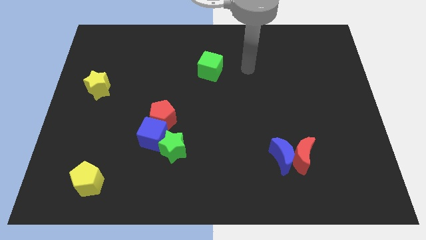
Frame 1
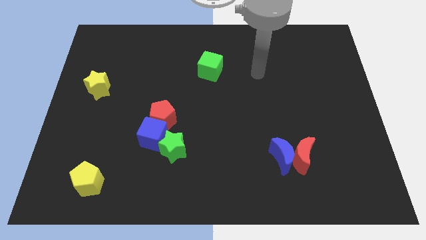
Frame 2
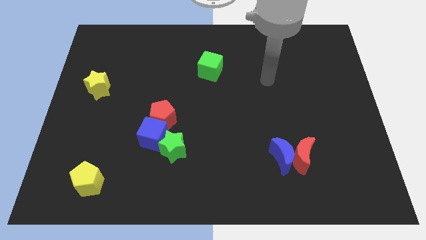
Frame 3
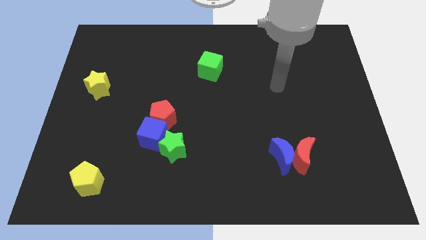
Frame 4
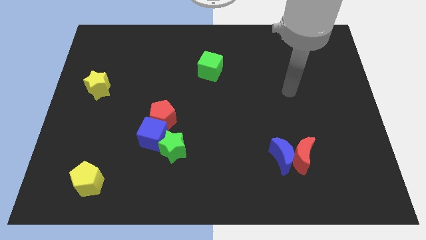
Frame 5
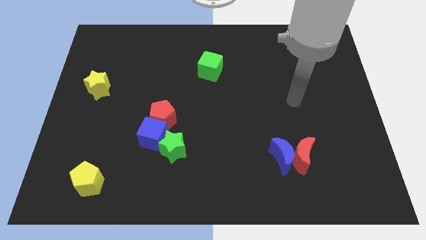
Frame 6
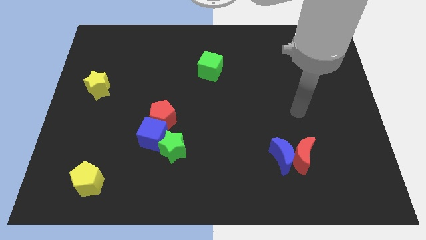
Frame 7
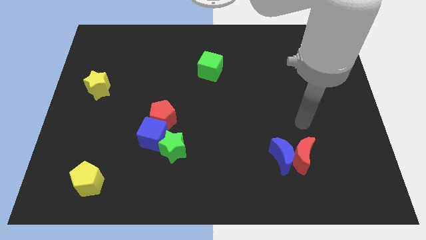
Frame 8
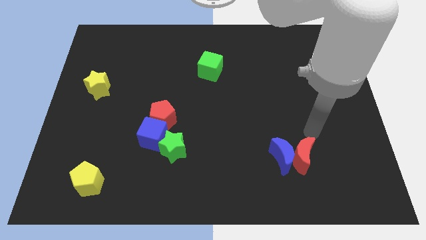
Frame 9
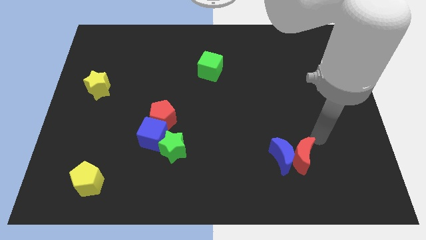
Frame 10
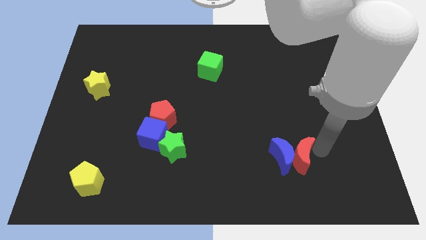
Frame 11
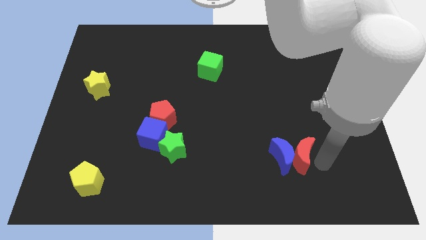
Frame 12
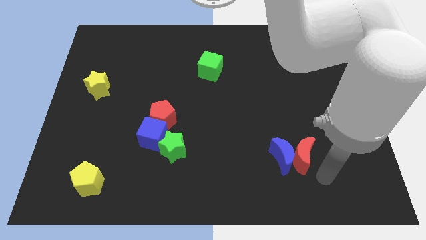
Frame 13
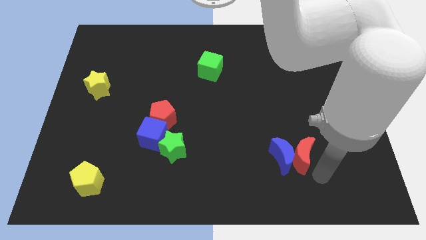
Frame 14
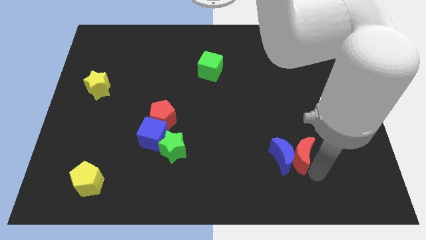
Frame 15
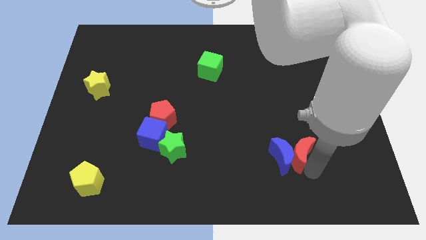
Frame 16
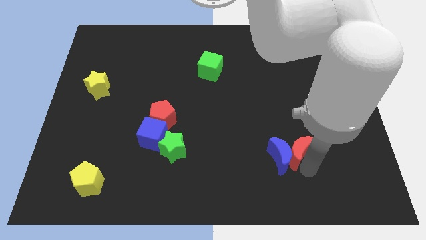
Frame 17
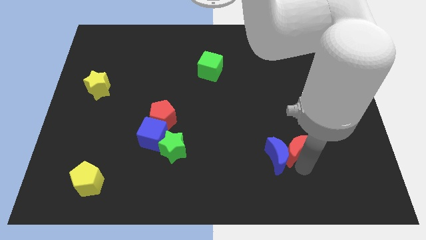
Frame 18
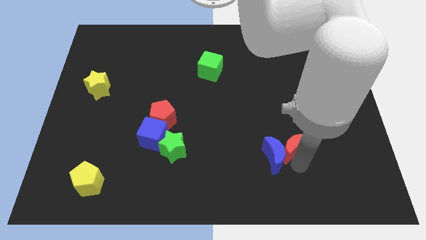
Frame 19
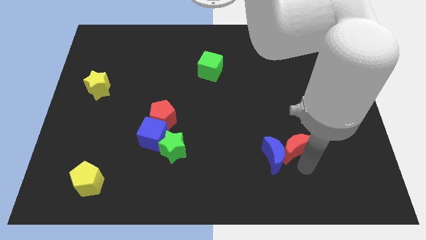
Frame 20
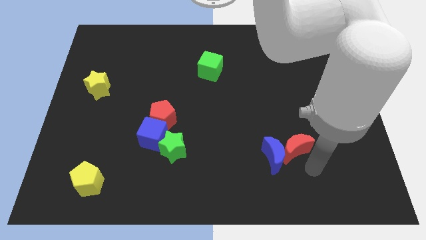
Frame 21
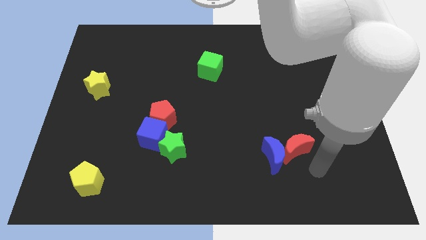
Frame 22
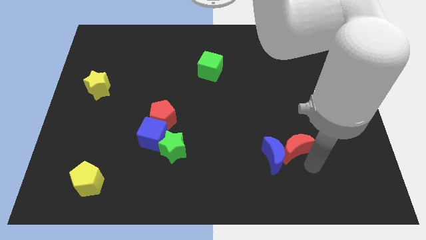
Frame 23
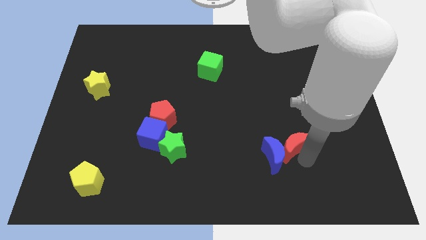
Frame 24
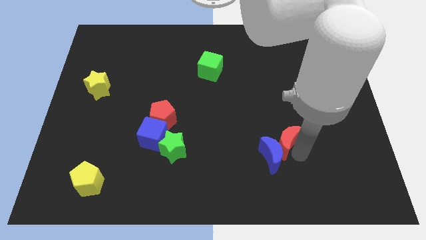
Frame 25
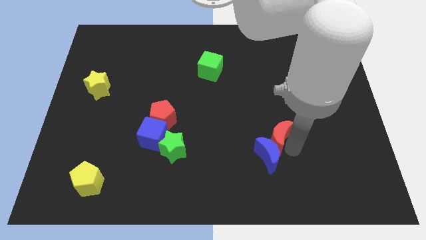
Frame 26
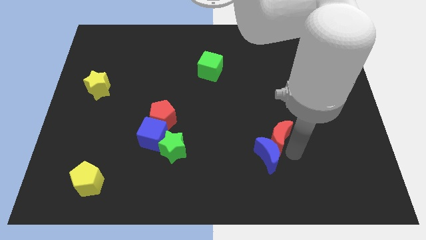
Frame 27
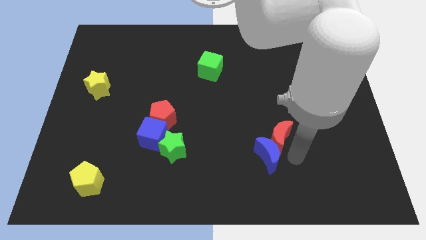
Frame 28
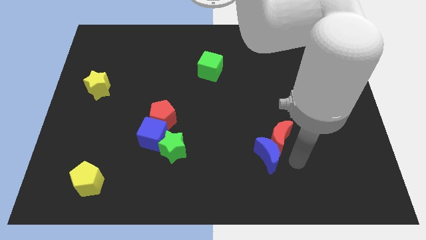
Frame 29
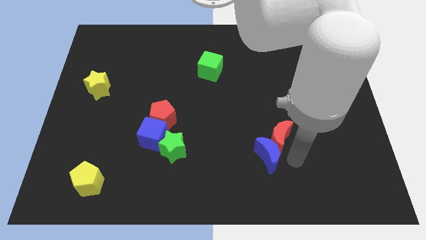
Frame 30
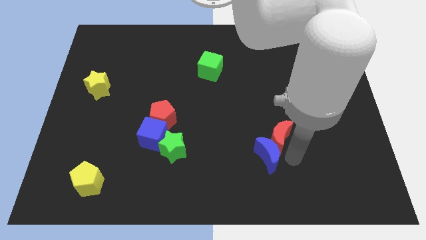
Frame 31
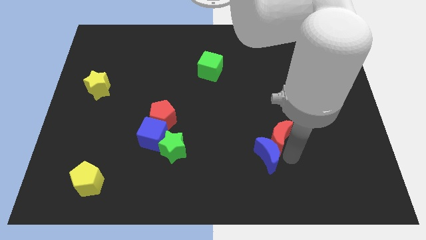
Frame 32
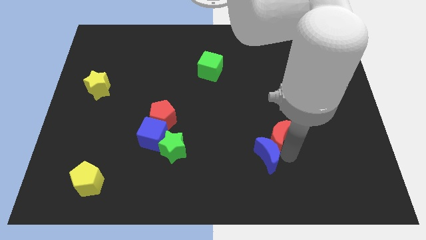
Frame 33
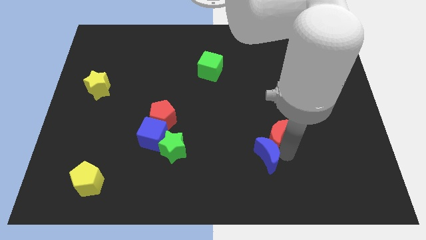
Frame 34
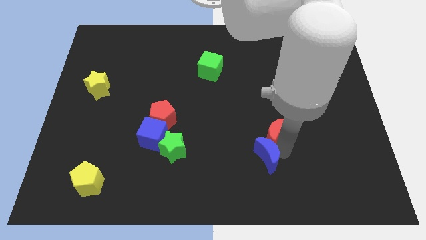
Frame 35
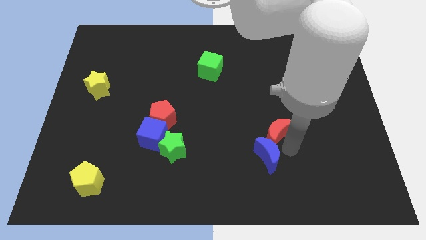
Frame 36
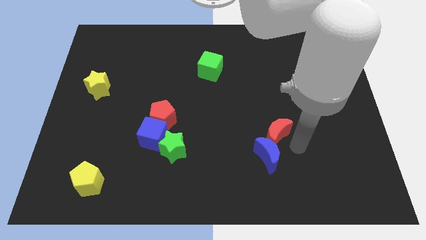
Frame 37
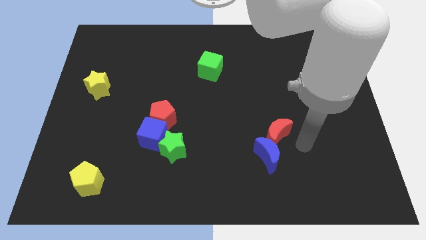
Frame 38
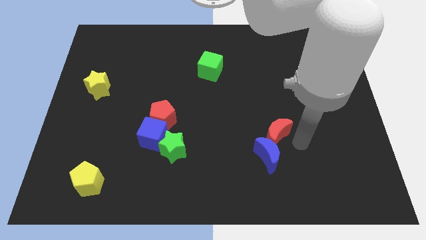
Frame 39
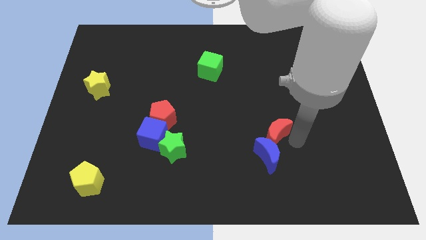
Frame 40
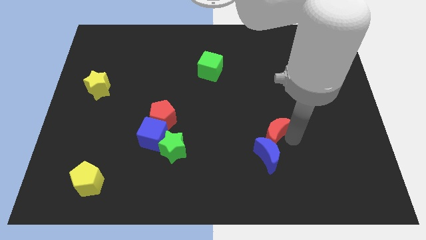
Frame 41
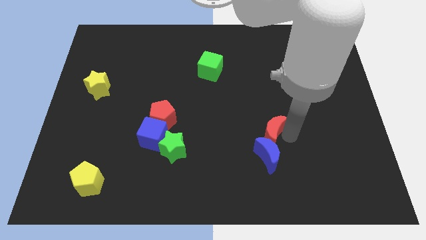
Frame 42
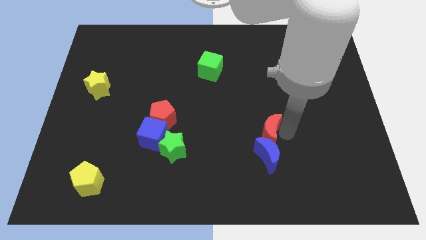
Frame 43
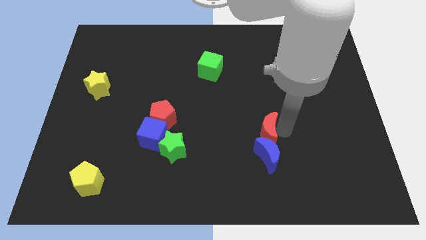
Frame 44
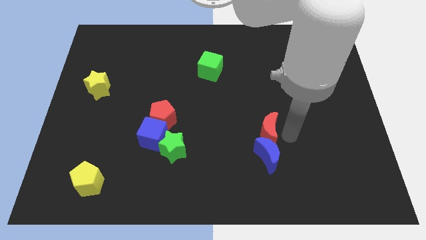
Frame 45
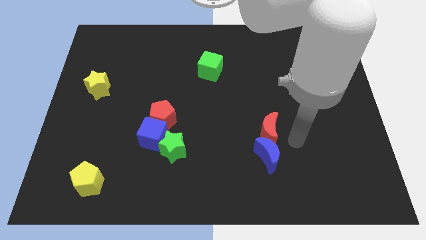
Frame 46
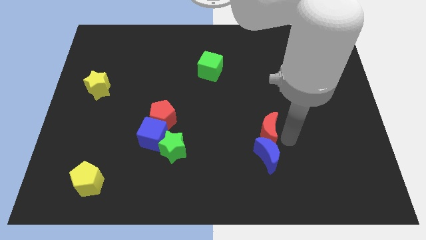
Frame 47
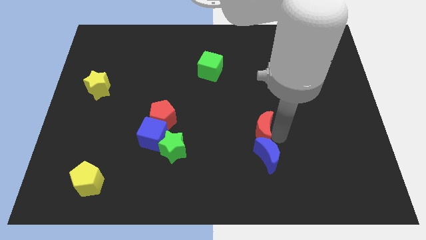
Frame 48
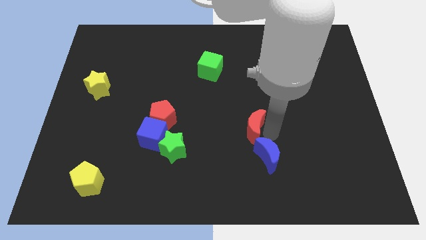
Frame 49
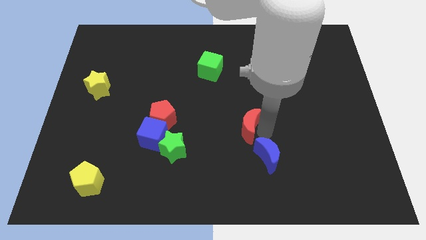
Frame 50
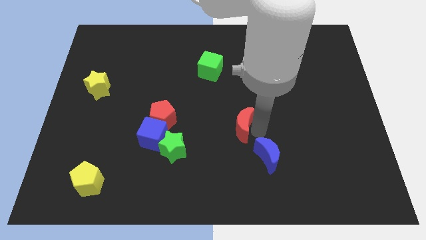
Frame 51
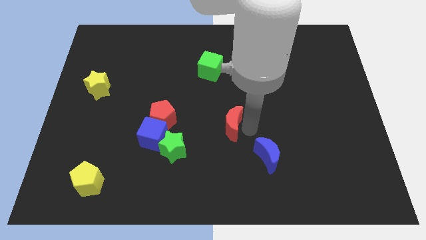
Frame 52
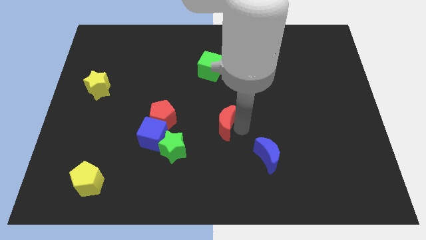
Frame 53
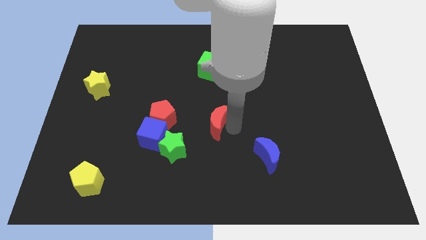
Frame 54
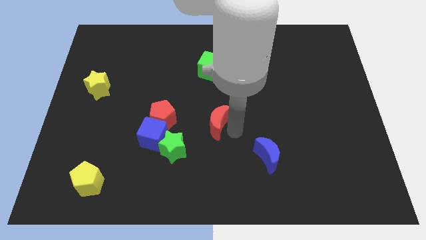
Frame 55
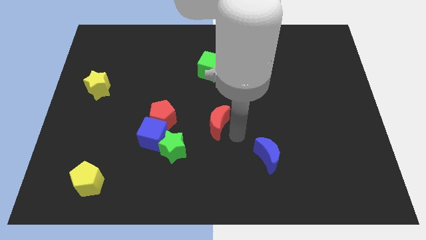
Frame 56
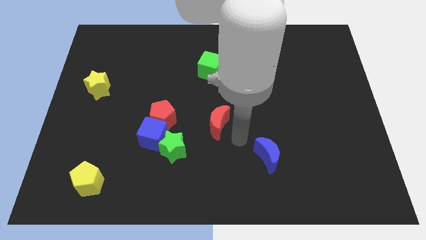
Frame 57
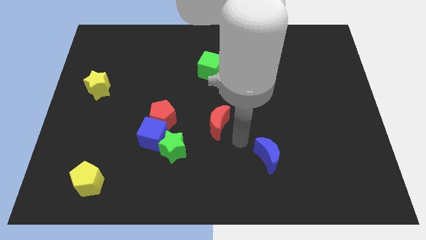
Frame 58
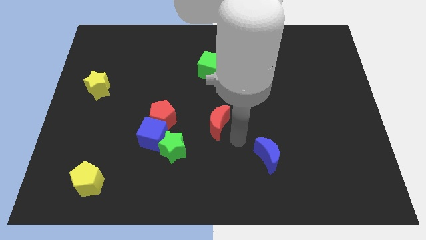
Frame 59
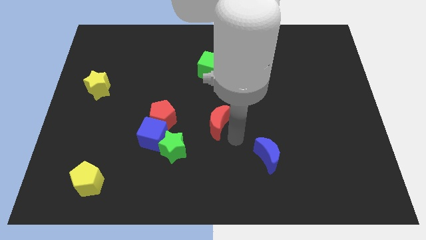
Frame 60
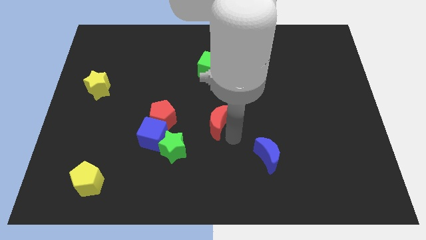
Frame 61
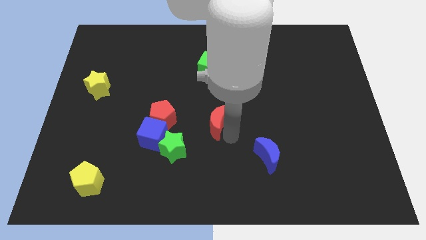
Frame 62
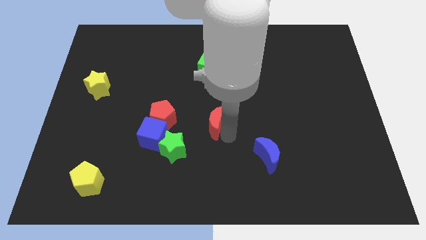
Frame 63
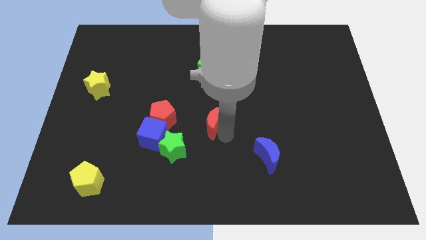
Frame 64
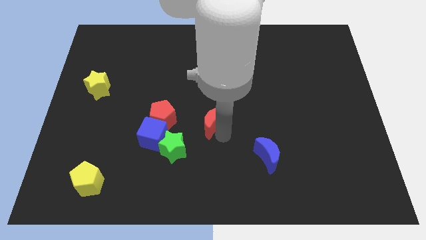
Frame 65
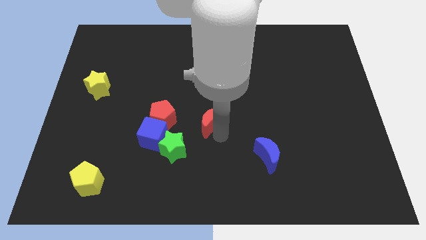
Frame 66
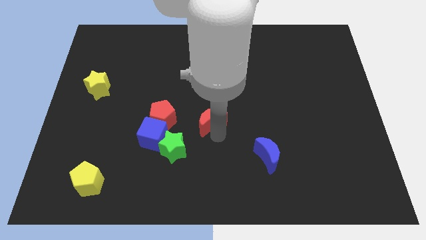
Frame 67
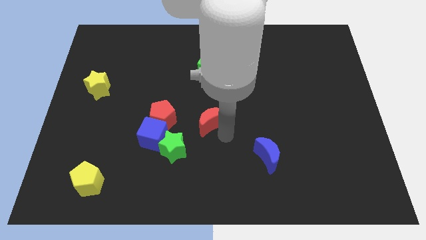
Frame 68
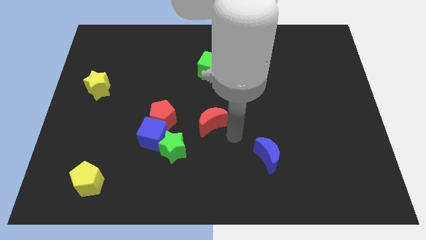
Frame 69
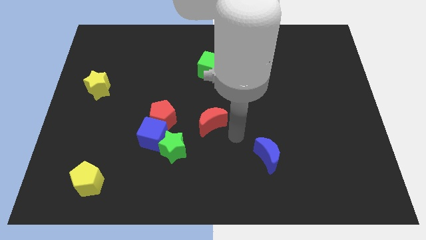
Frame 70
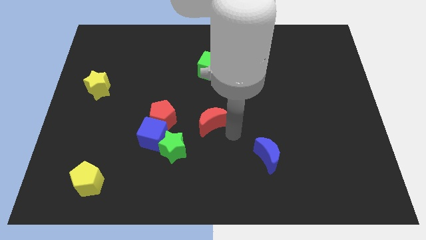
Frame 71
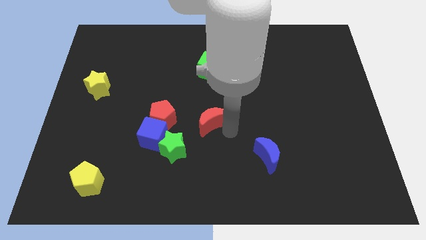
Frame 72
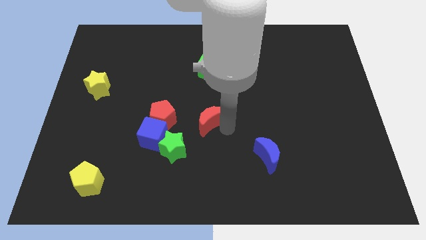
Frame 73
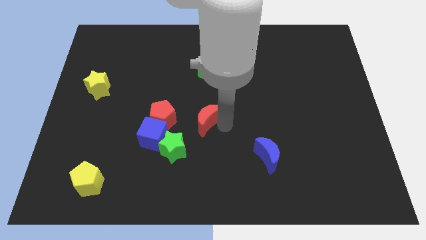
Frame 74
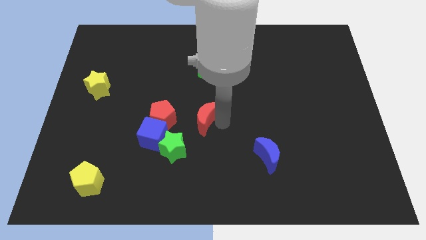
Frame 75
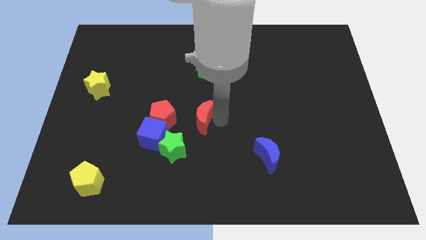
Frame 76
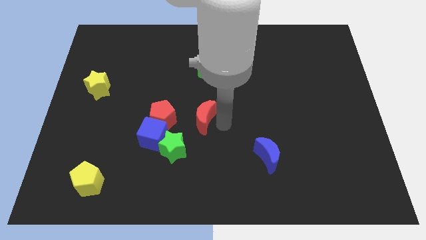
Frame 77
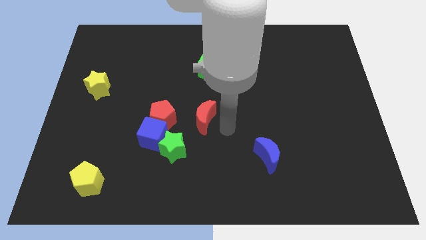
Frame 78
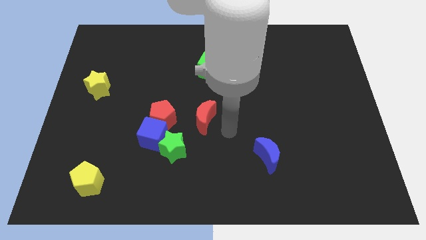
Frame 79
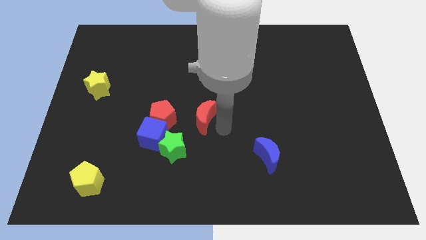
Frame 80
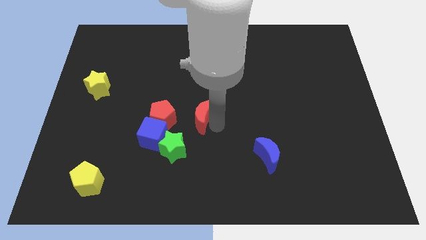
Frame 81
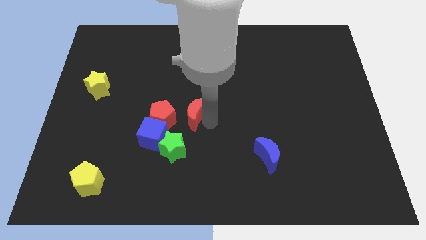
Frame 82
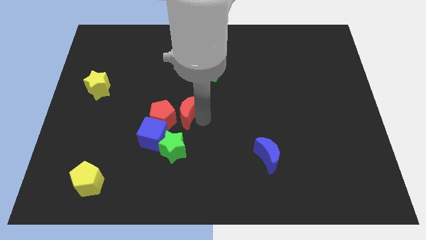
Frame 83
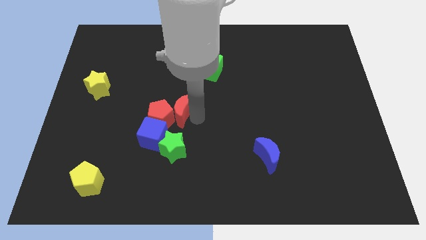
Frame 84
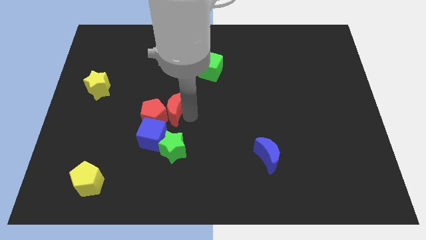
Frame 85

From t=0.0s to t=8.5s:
slide the red moon to the top of the blue cube
